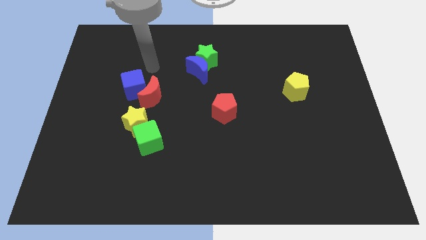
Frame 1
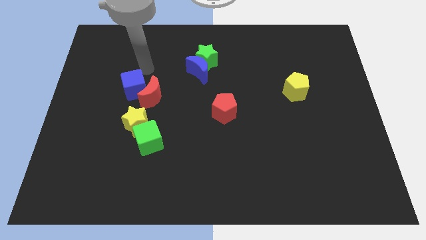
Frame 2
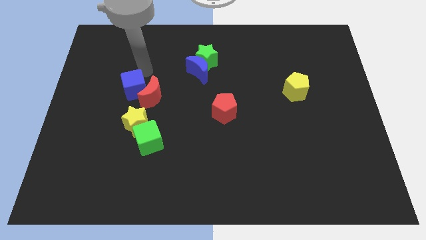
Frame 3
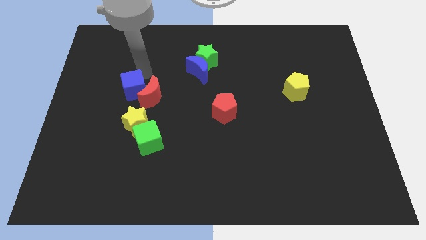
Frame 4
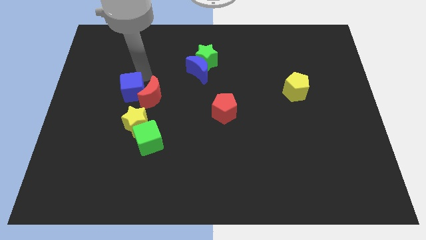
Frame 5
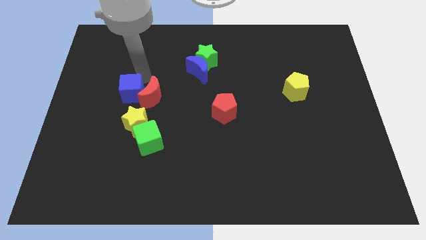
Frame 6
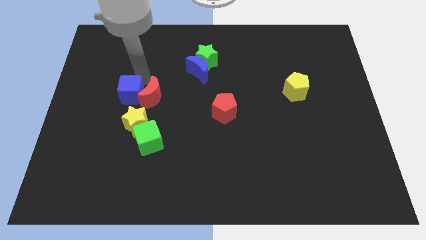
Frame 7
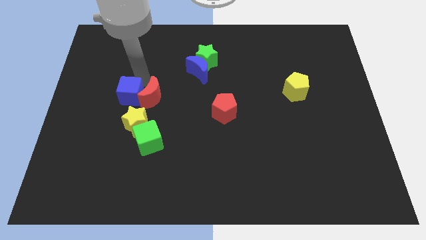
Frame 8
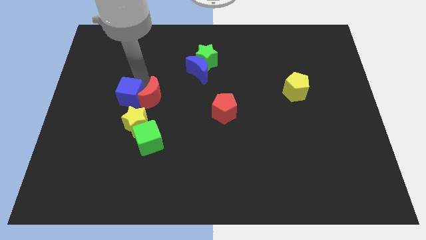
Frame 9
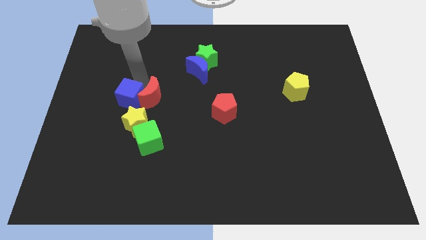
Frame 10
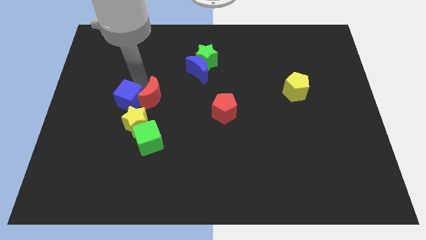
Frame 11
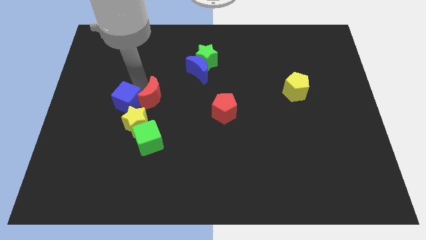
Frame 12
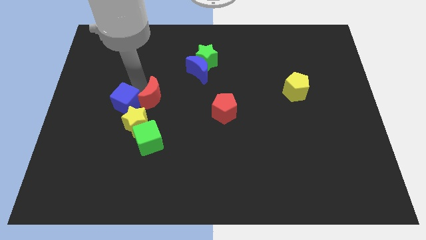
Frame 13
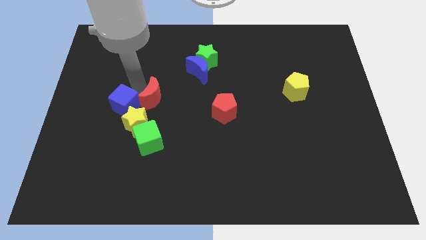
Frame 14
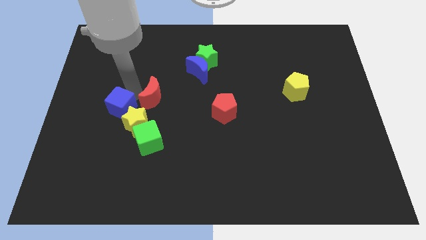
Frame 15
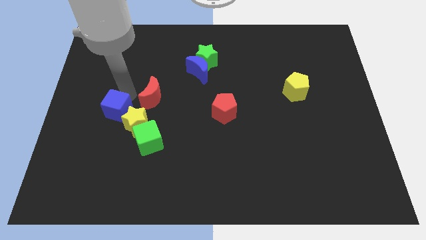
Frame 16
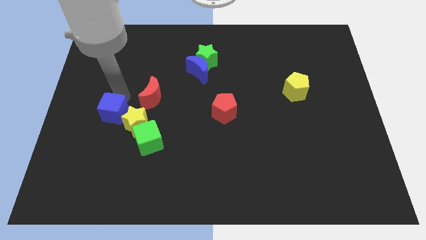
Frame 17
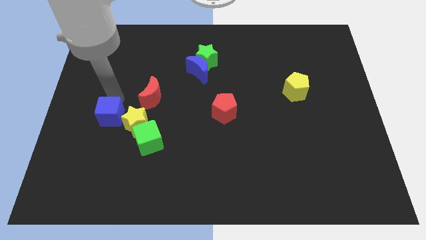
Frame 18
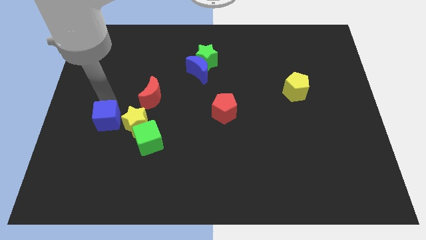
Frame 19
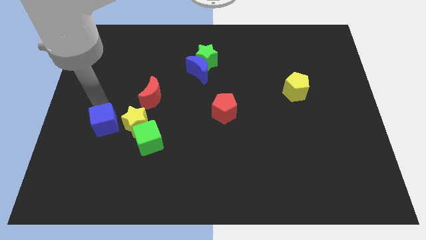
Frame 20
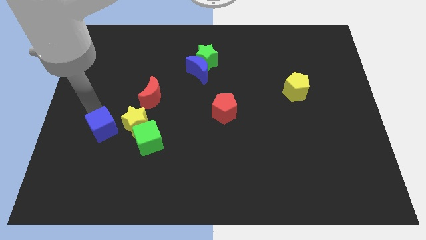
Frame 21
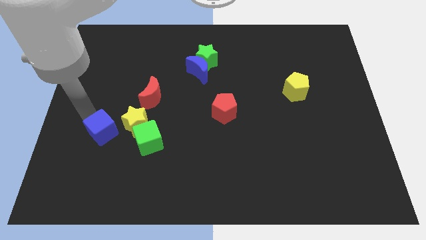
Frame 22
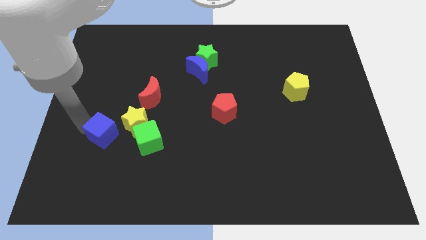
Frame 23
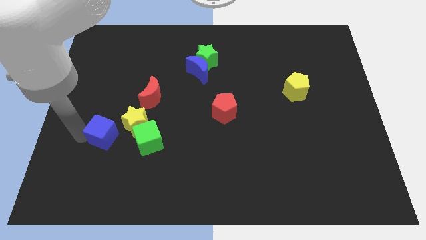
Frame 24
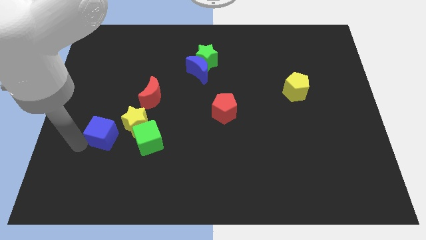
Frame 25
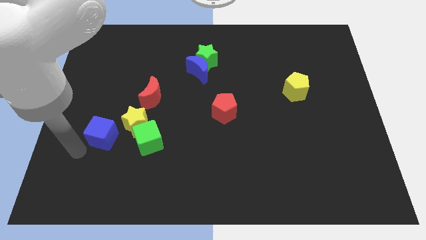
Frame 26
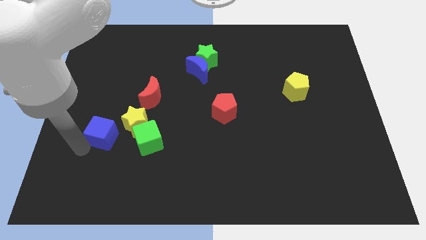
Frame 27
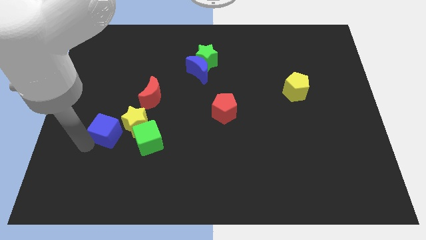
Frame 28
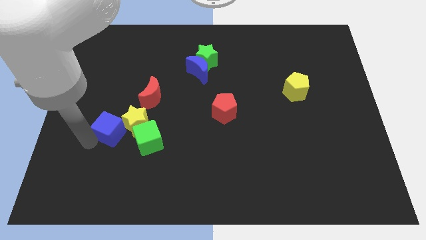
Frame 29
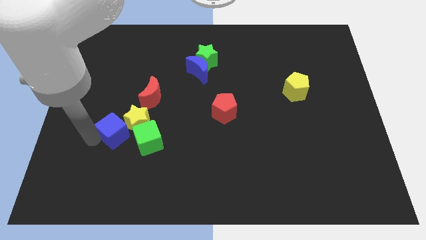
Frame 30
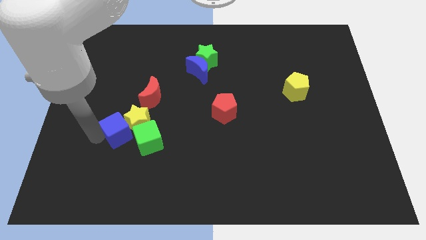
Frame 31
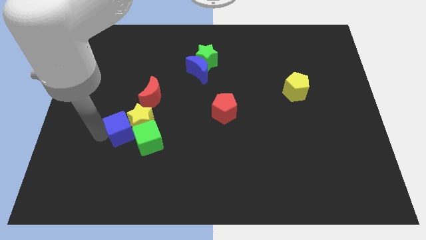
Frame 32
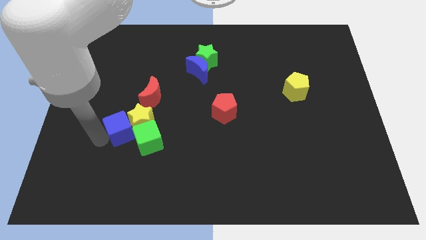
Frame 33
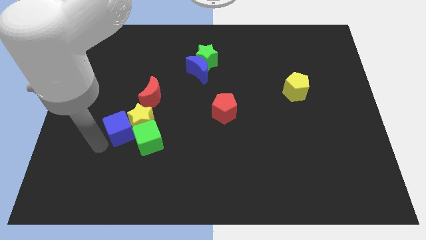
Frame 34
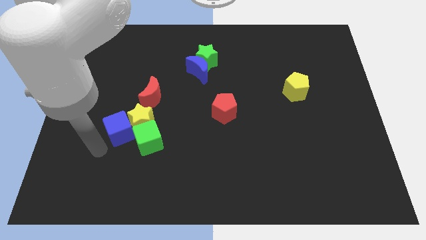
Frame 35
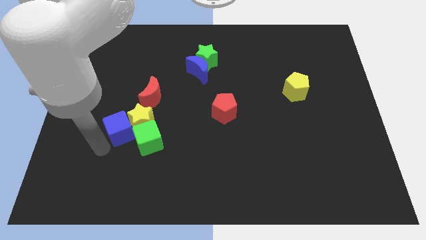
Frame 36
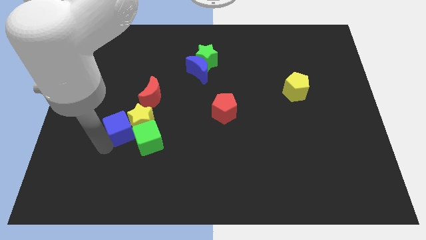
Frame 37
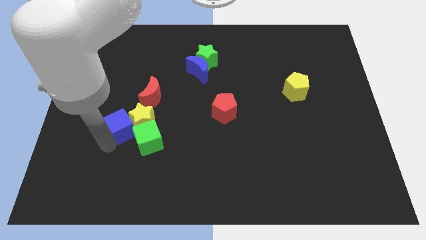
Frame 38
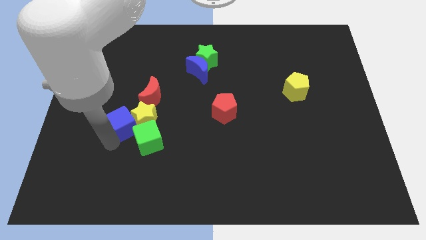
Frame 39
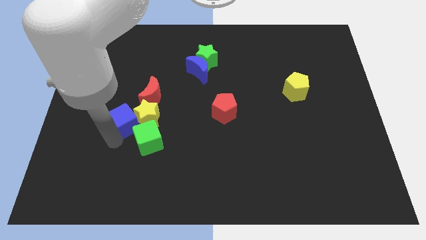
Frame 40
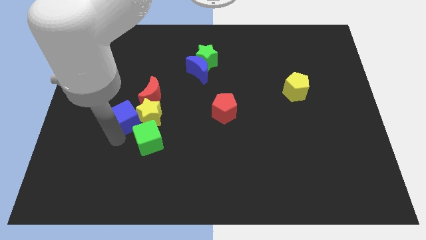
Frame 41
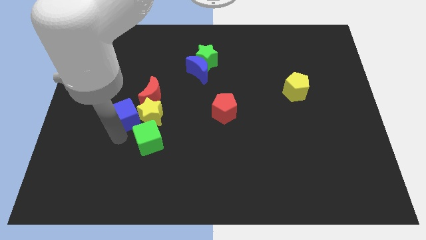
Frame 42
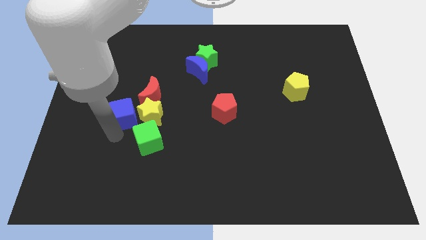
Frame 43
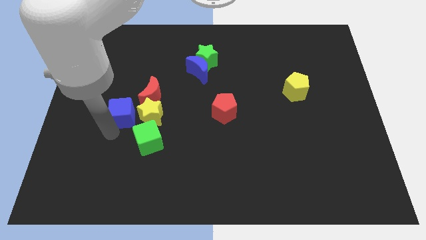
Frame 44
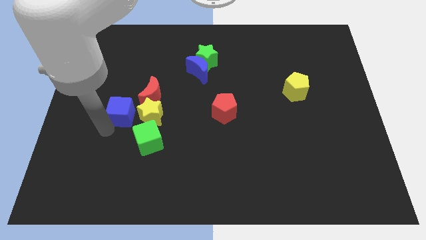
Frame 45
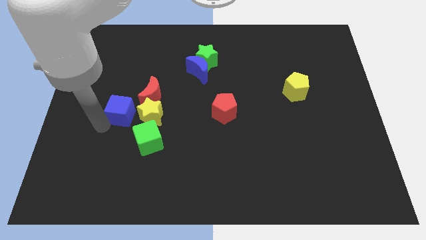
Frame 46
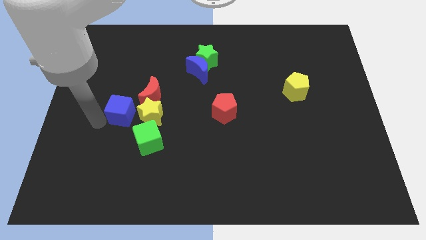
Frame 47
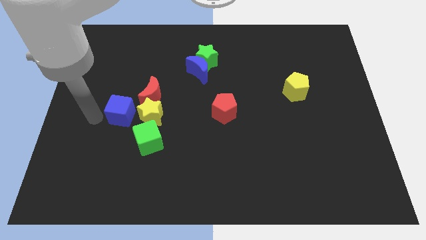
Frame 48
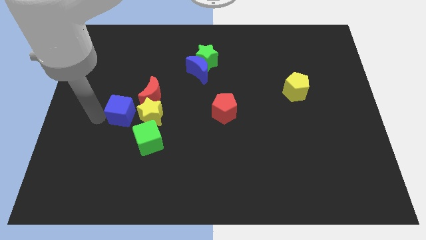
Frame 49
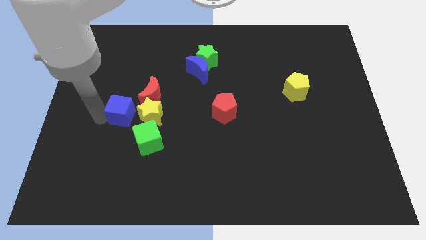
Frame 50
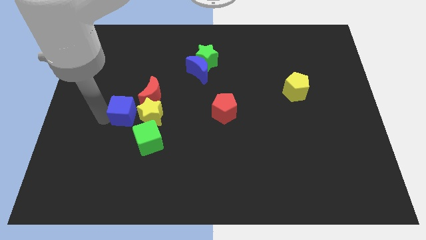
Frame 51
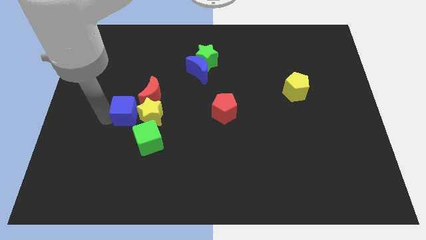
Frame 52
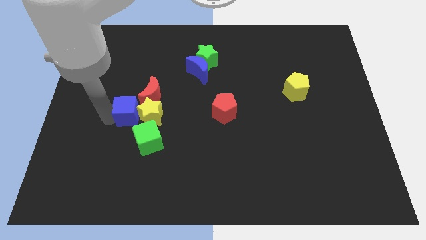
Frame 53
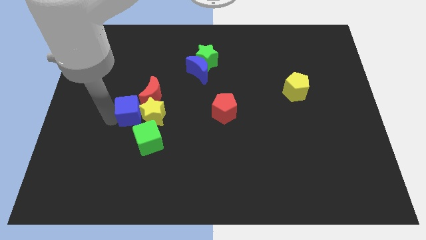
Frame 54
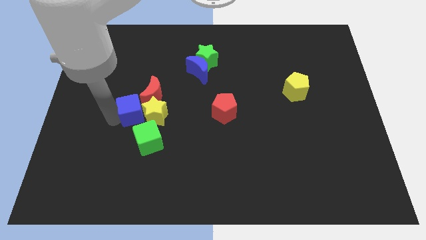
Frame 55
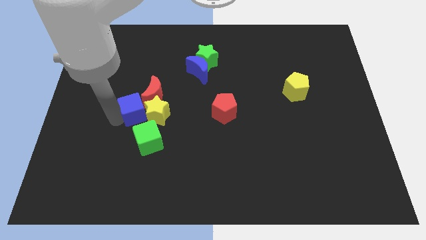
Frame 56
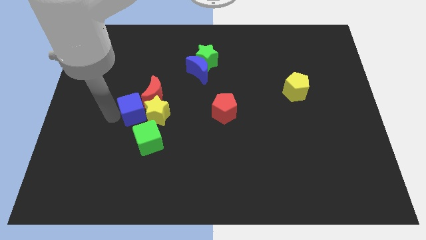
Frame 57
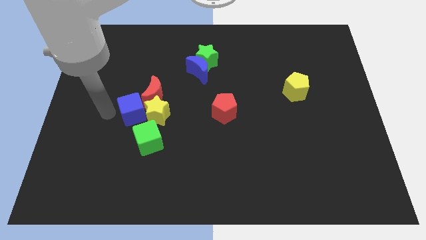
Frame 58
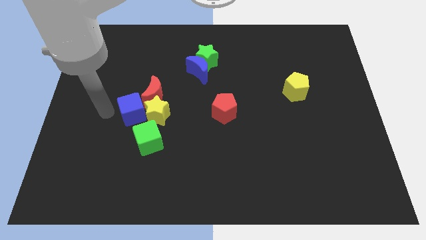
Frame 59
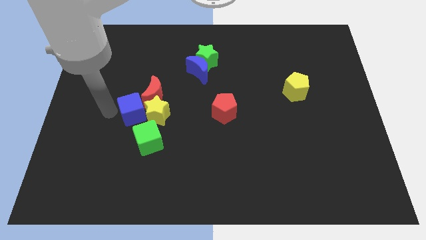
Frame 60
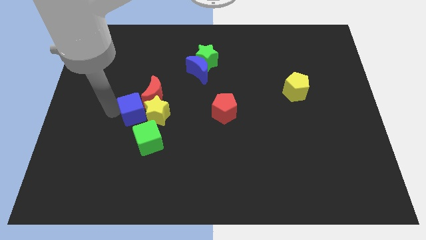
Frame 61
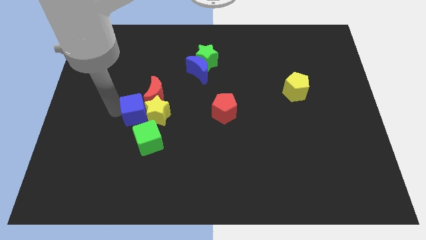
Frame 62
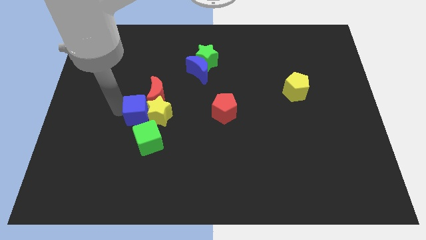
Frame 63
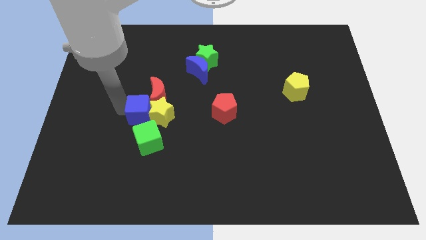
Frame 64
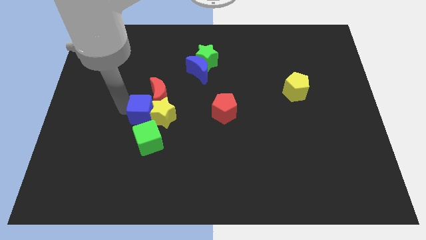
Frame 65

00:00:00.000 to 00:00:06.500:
slide the blue cube down and to the right diagonally slightly

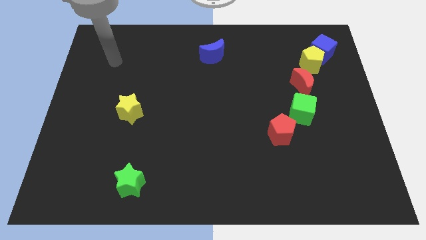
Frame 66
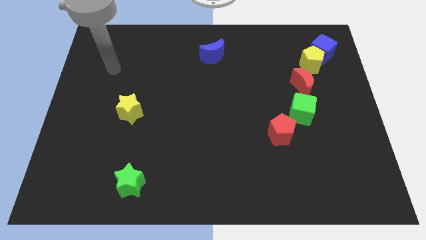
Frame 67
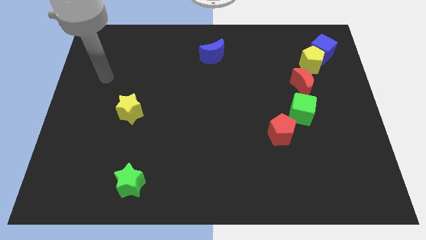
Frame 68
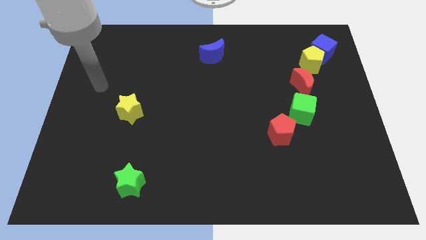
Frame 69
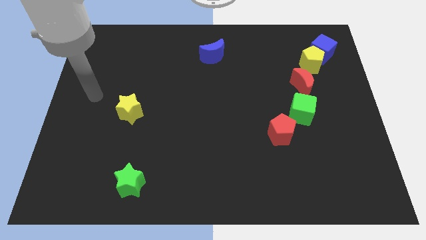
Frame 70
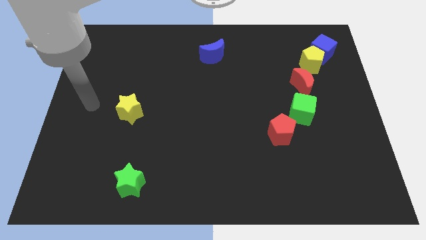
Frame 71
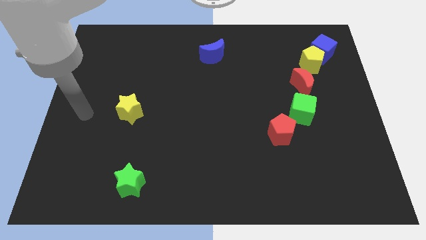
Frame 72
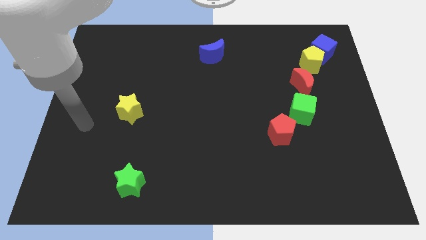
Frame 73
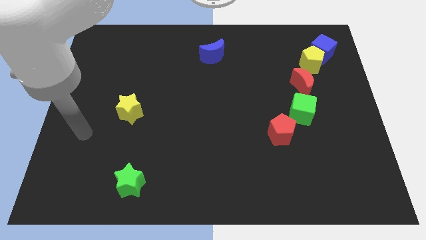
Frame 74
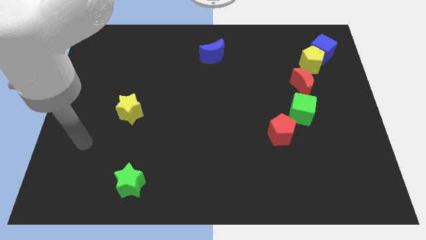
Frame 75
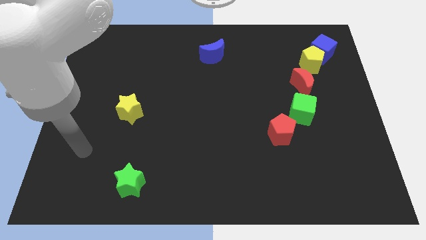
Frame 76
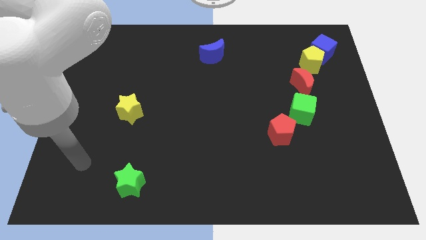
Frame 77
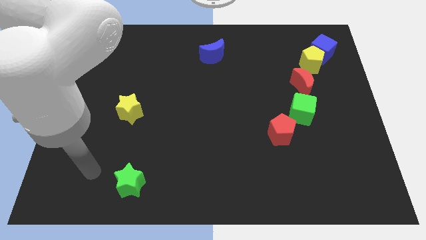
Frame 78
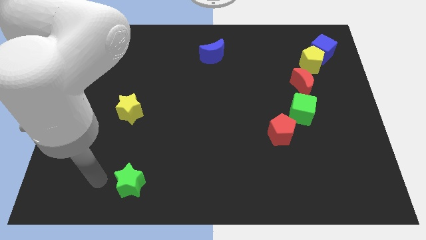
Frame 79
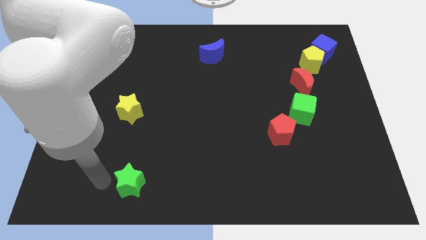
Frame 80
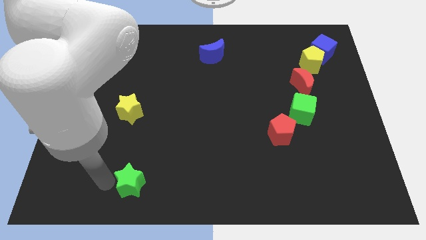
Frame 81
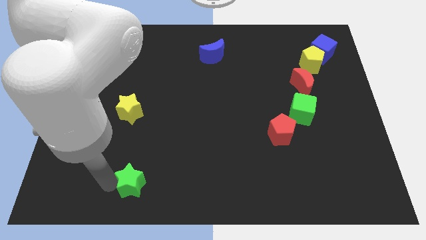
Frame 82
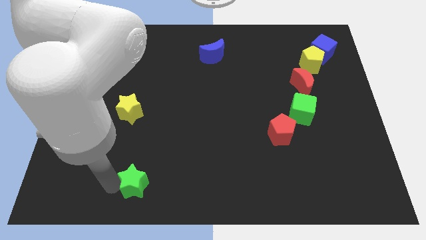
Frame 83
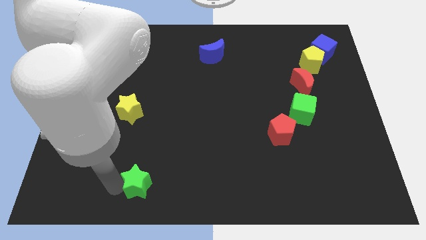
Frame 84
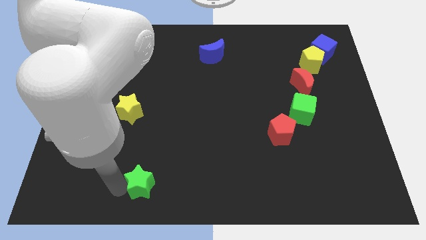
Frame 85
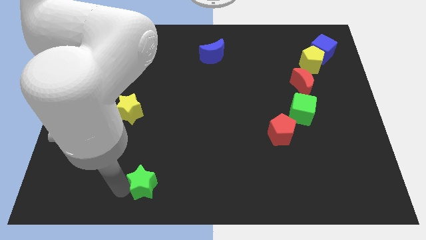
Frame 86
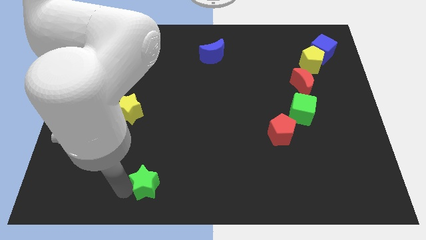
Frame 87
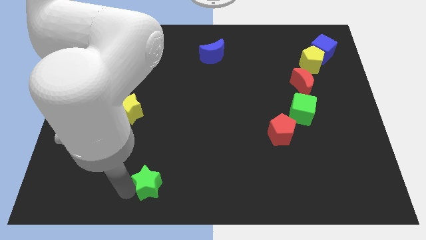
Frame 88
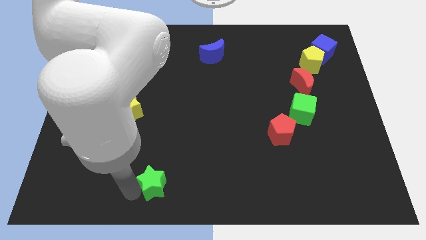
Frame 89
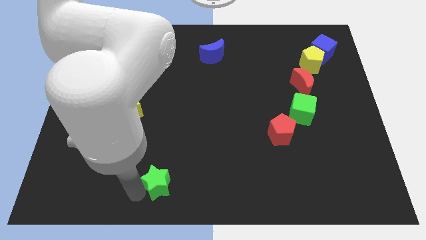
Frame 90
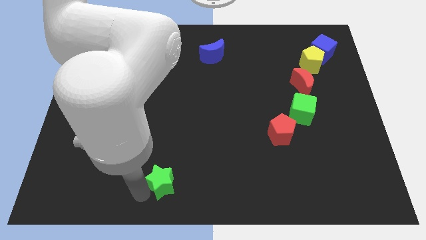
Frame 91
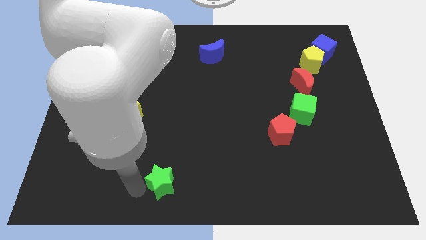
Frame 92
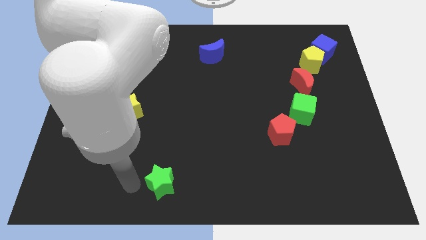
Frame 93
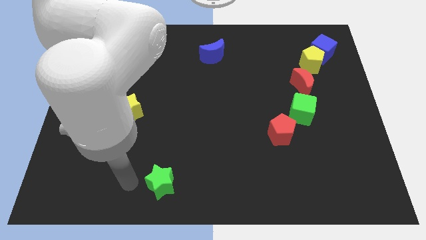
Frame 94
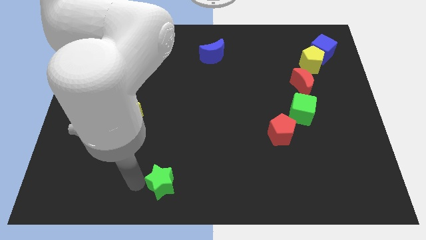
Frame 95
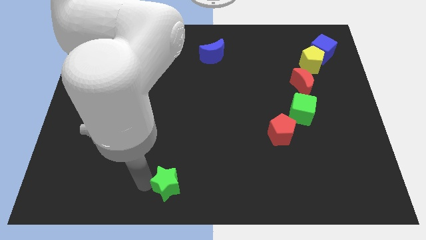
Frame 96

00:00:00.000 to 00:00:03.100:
move the green star slightly right
